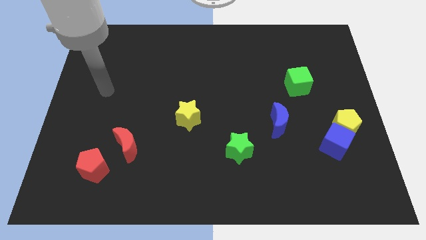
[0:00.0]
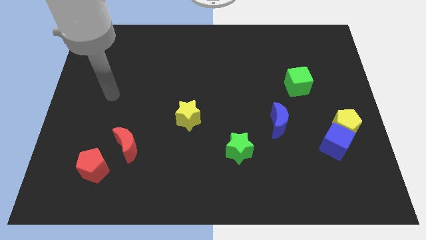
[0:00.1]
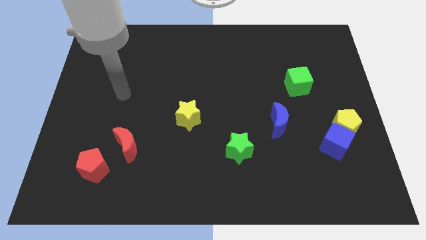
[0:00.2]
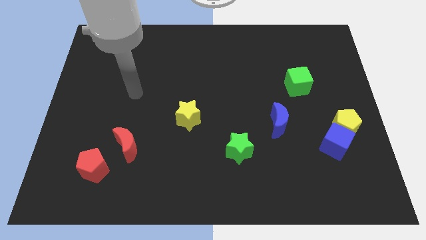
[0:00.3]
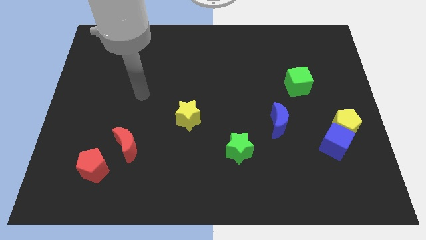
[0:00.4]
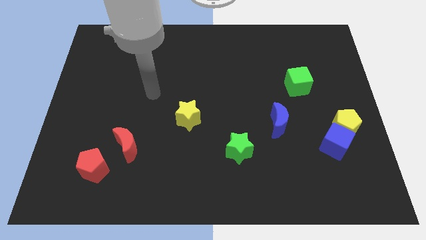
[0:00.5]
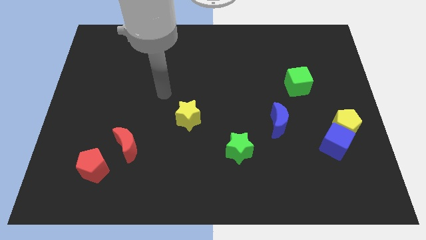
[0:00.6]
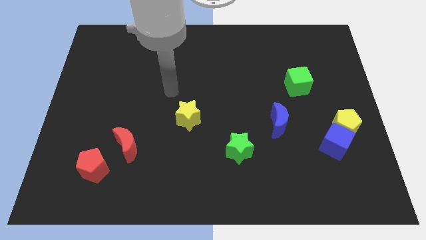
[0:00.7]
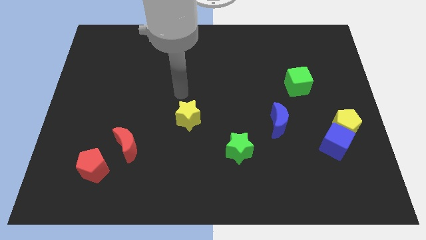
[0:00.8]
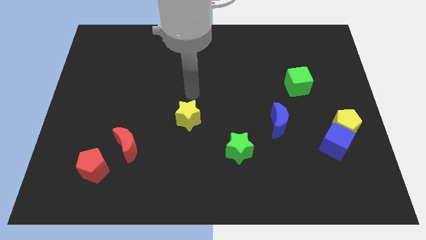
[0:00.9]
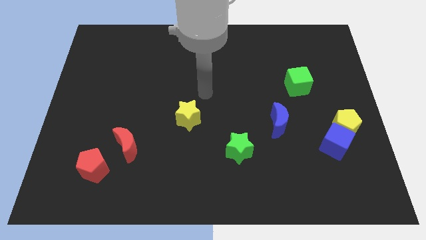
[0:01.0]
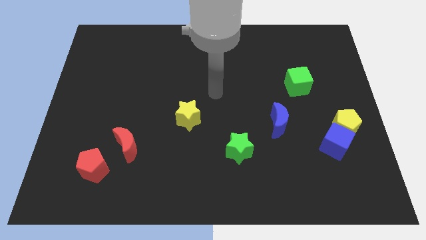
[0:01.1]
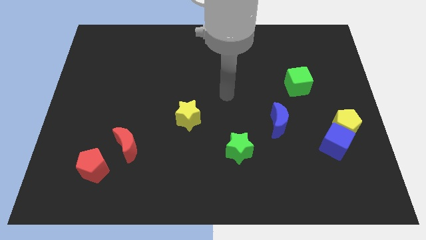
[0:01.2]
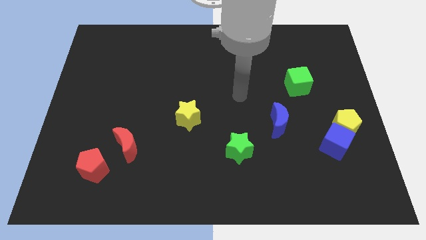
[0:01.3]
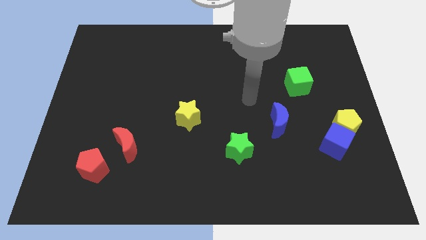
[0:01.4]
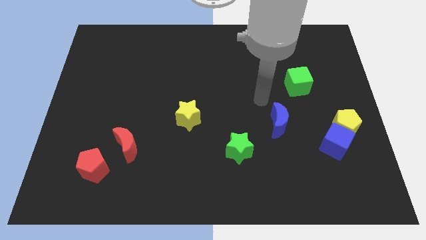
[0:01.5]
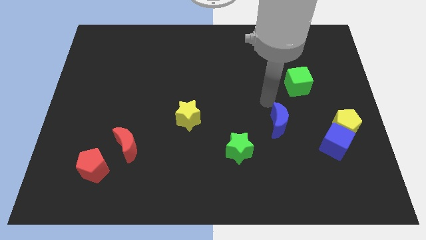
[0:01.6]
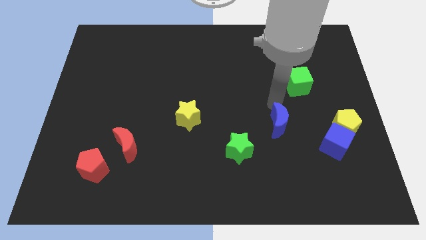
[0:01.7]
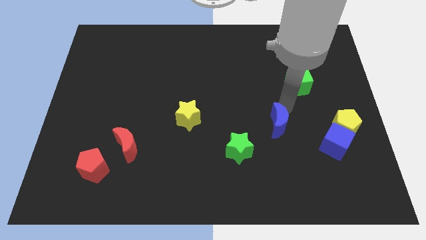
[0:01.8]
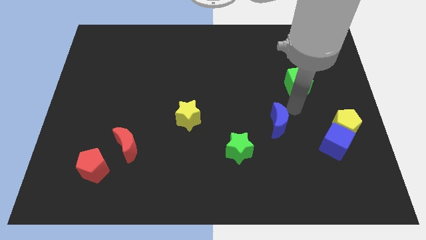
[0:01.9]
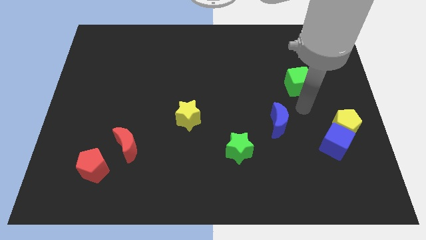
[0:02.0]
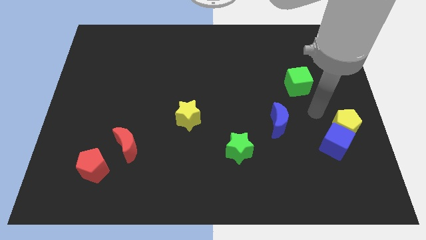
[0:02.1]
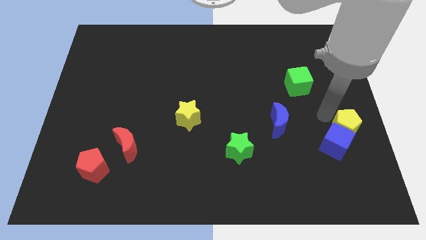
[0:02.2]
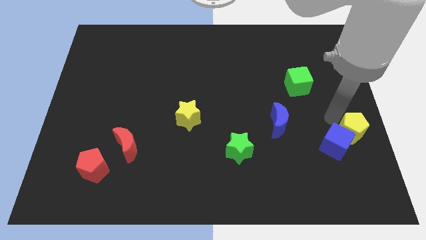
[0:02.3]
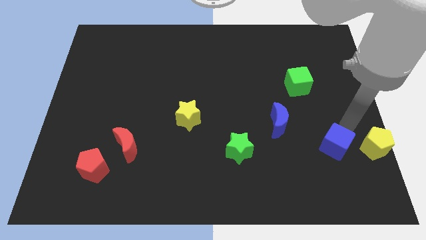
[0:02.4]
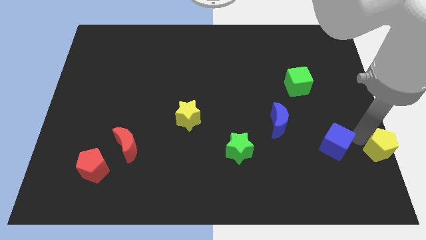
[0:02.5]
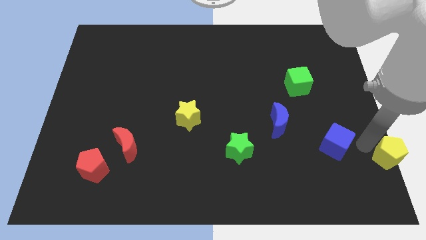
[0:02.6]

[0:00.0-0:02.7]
move the blue cube away from the yellow pentagon

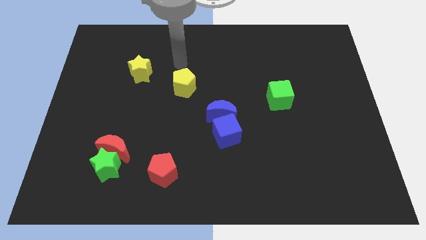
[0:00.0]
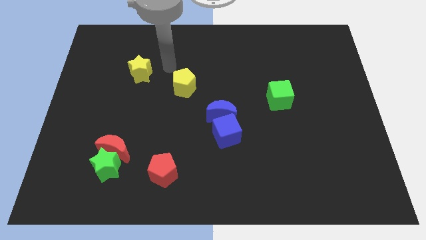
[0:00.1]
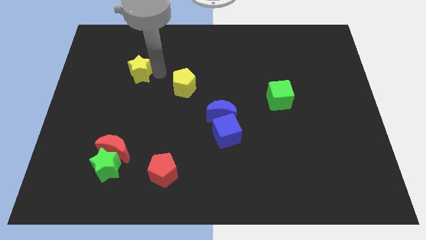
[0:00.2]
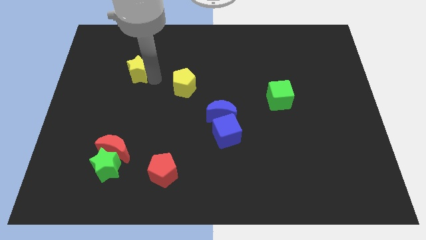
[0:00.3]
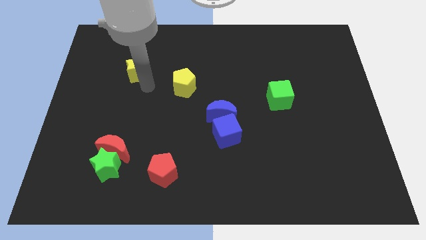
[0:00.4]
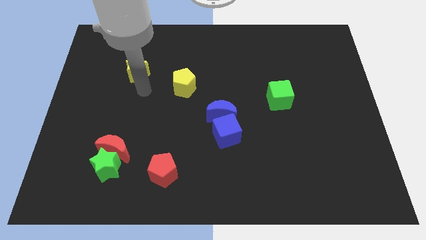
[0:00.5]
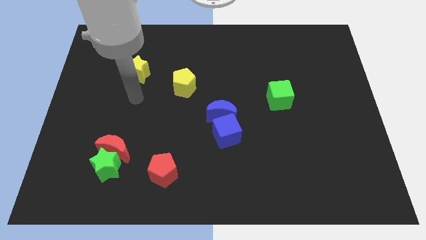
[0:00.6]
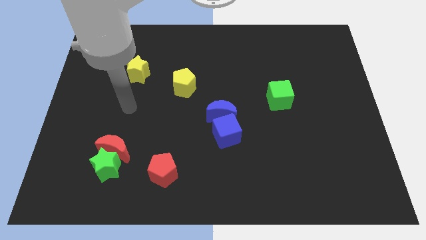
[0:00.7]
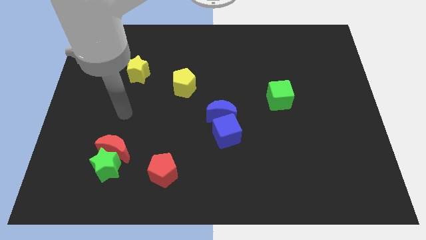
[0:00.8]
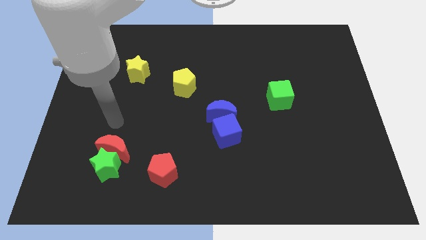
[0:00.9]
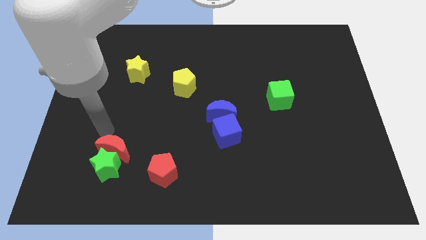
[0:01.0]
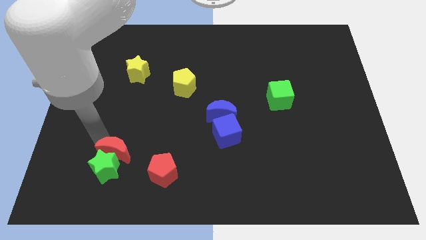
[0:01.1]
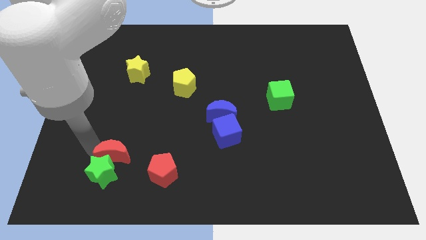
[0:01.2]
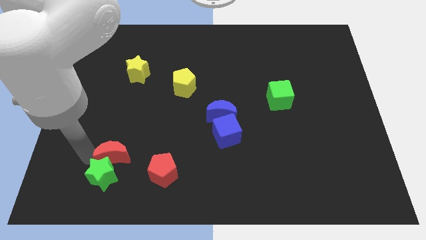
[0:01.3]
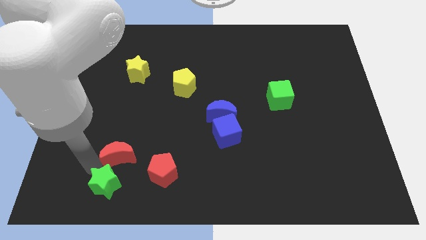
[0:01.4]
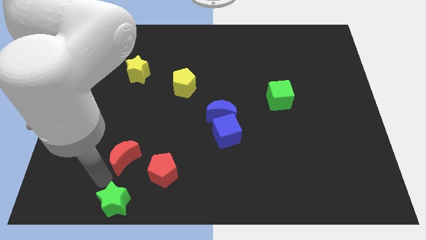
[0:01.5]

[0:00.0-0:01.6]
pull the red moon apart from the green star

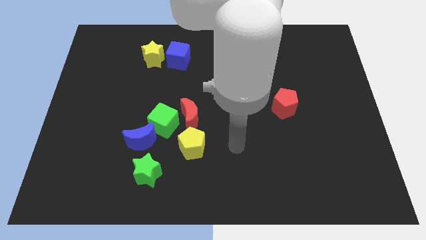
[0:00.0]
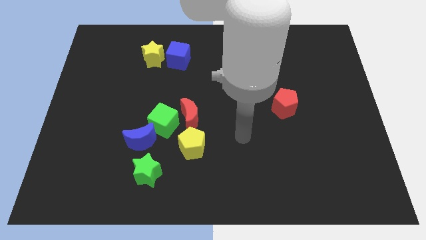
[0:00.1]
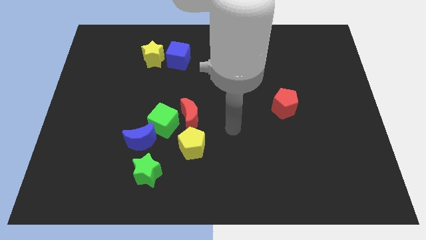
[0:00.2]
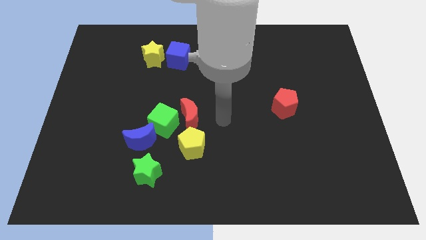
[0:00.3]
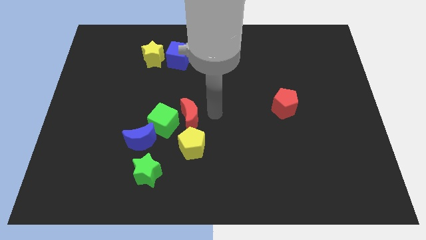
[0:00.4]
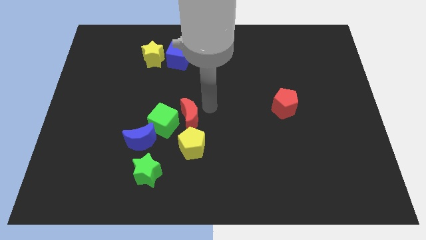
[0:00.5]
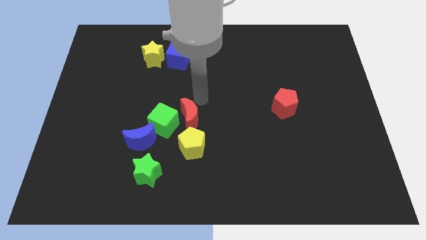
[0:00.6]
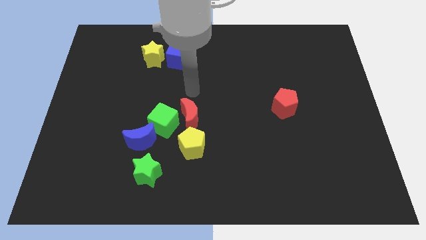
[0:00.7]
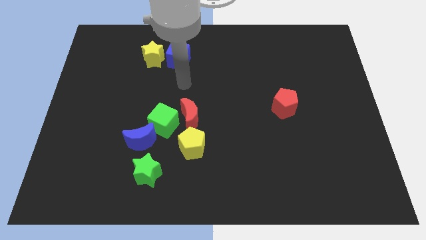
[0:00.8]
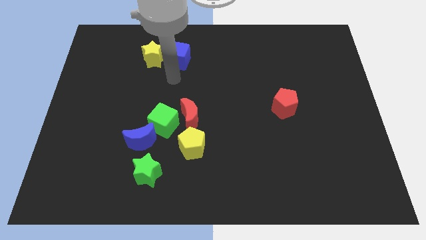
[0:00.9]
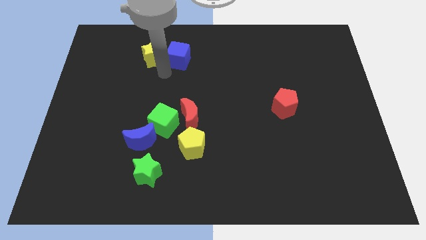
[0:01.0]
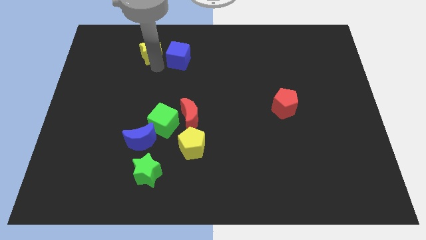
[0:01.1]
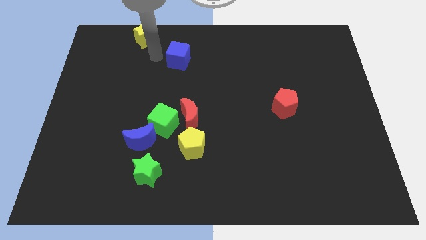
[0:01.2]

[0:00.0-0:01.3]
move the blue cube away from the yellow star

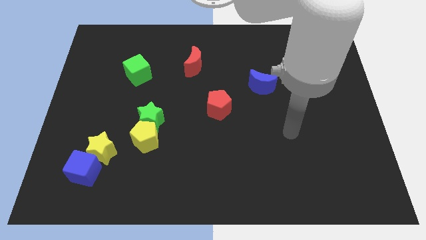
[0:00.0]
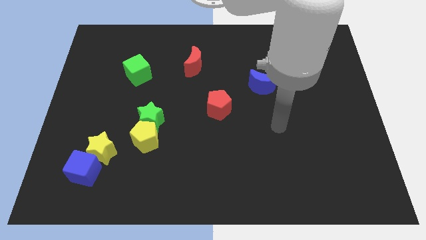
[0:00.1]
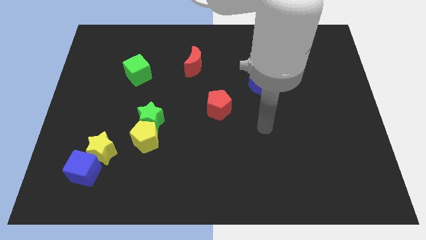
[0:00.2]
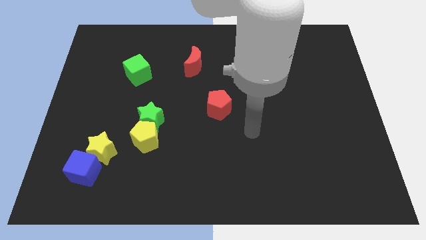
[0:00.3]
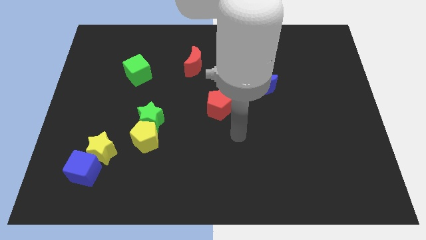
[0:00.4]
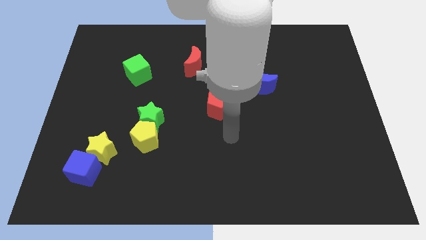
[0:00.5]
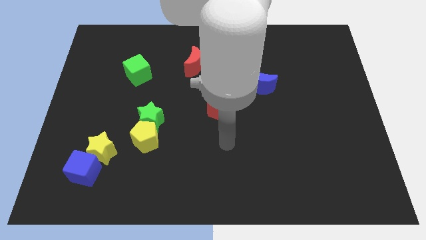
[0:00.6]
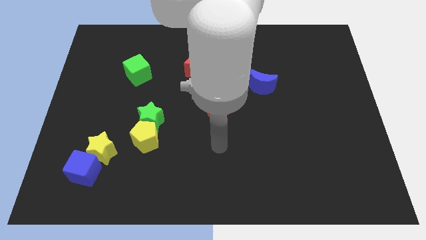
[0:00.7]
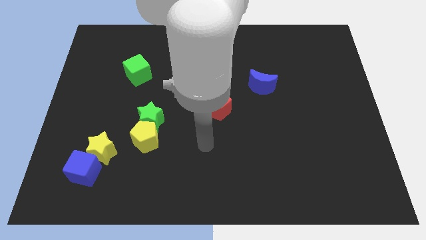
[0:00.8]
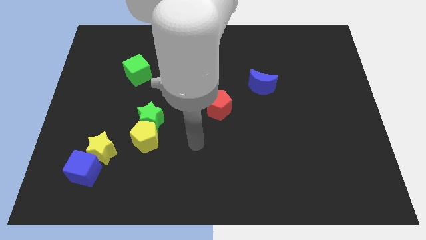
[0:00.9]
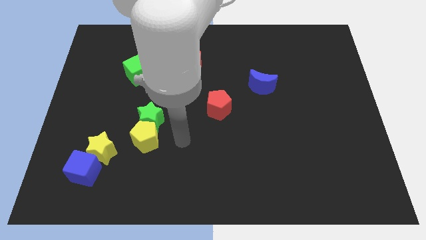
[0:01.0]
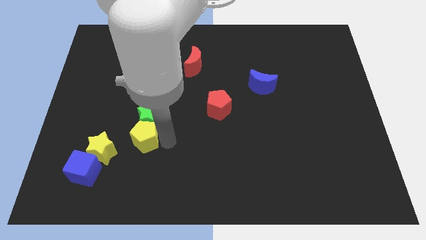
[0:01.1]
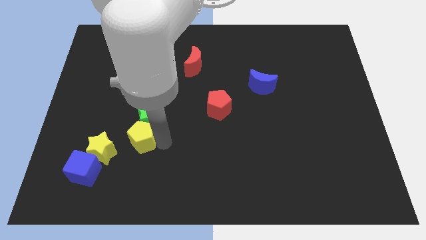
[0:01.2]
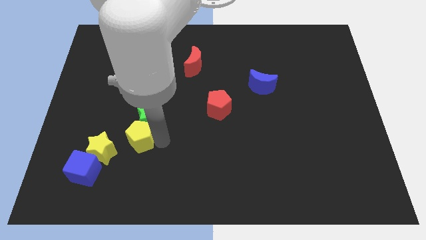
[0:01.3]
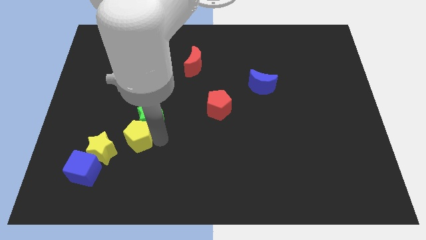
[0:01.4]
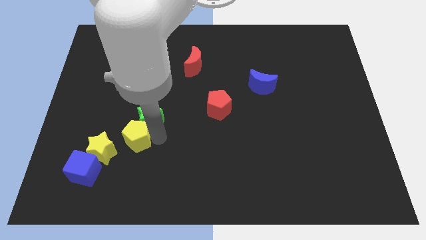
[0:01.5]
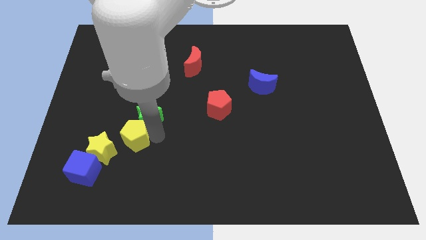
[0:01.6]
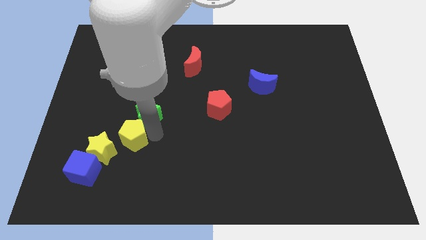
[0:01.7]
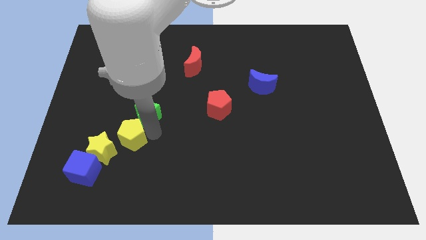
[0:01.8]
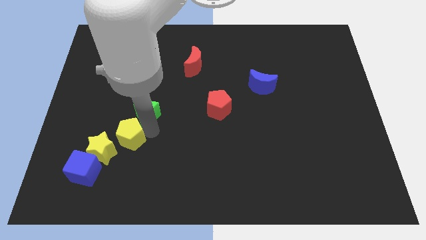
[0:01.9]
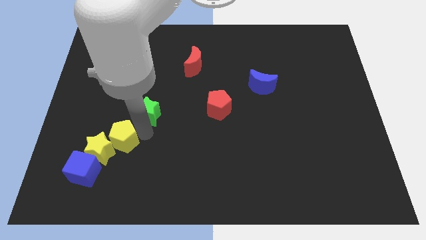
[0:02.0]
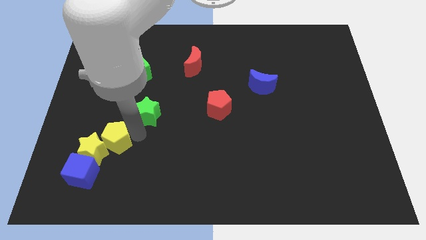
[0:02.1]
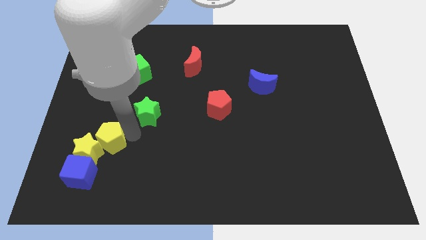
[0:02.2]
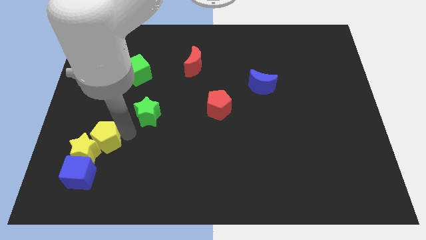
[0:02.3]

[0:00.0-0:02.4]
pull the green star apart from the yellow pentagon

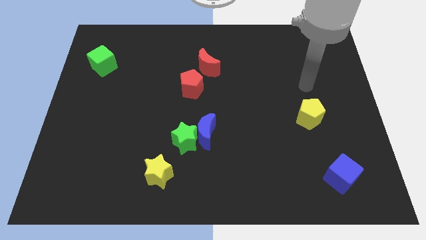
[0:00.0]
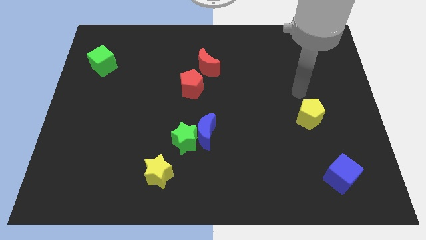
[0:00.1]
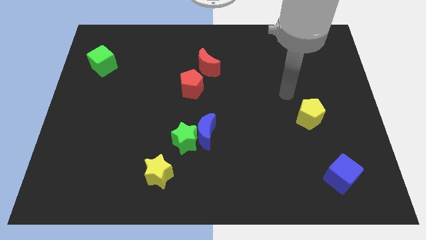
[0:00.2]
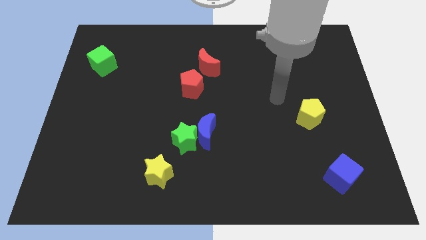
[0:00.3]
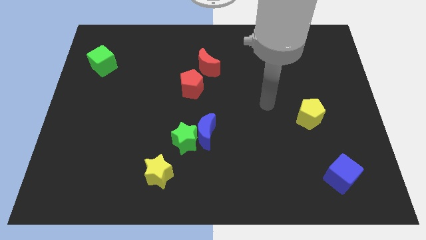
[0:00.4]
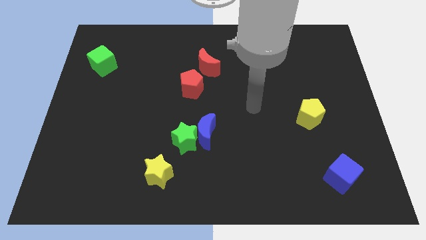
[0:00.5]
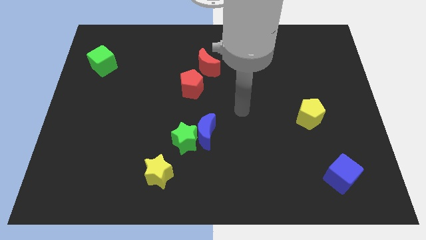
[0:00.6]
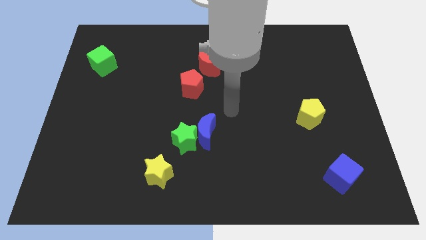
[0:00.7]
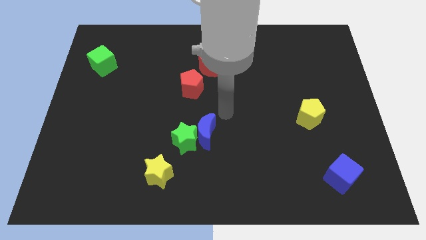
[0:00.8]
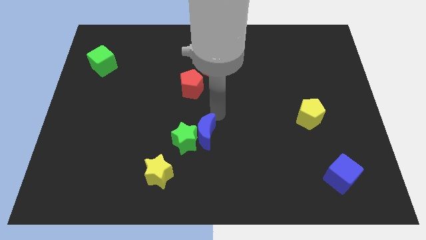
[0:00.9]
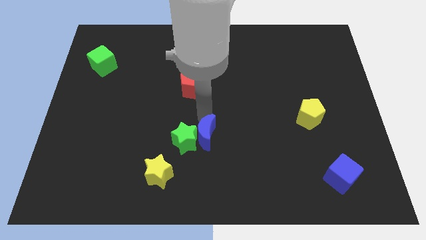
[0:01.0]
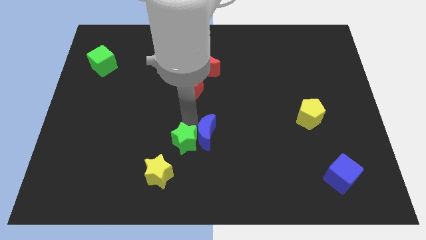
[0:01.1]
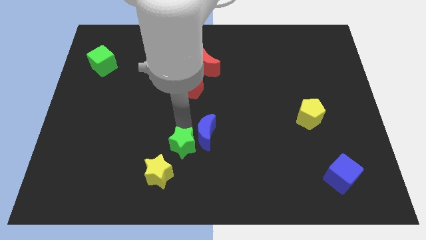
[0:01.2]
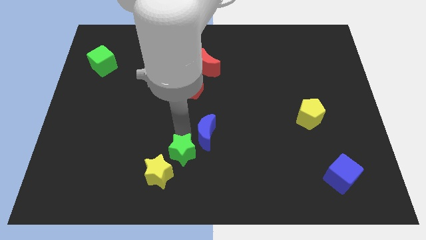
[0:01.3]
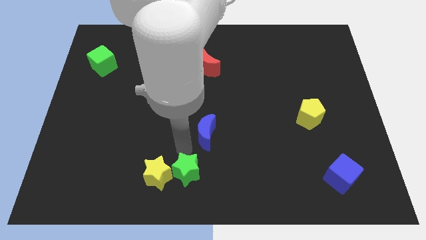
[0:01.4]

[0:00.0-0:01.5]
pull the blue moon apart from the green star
